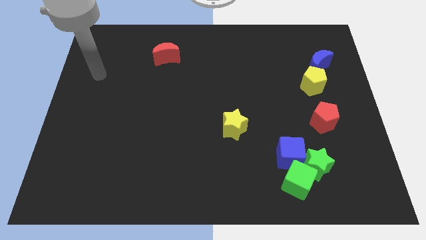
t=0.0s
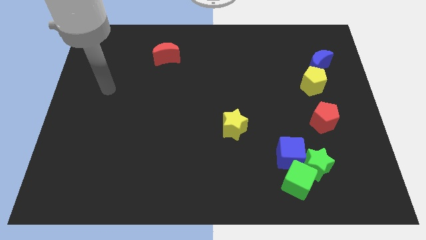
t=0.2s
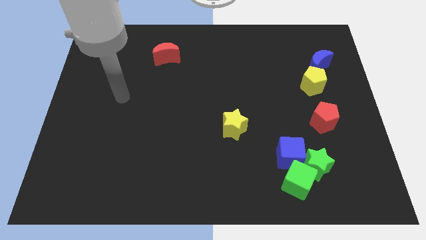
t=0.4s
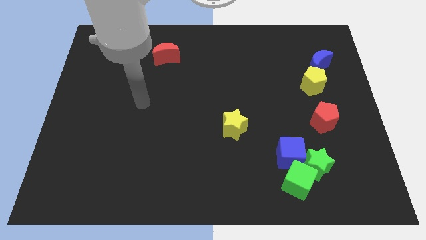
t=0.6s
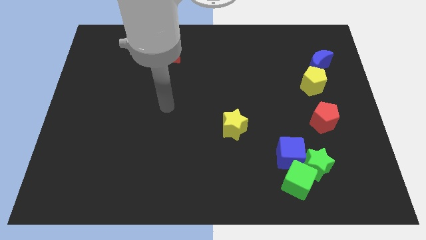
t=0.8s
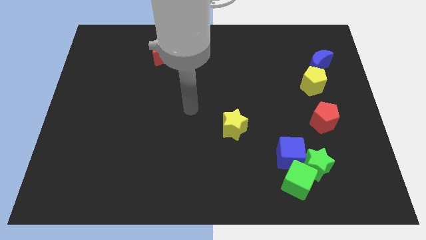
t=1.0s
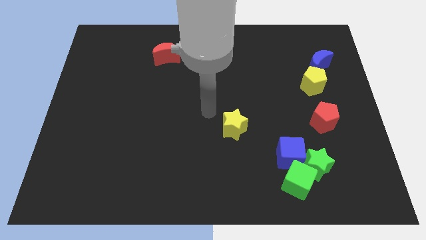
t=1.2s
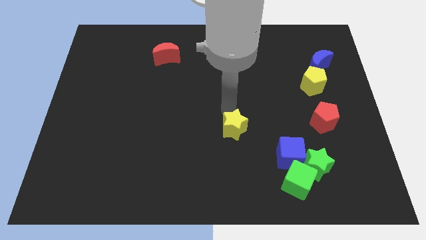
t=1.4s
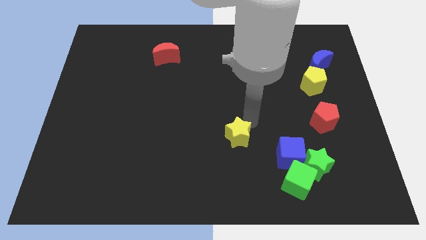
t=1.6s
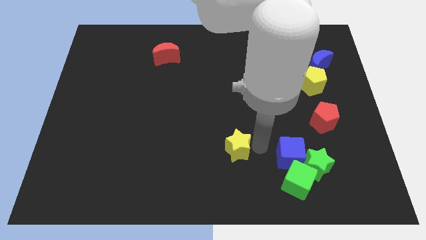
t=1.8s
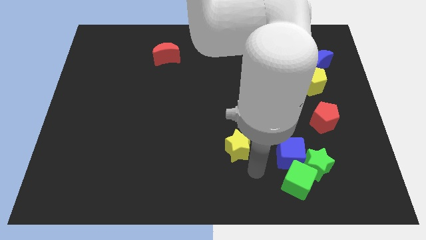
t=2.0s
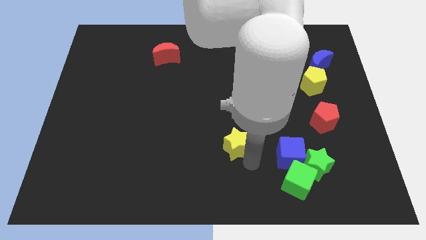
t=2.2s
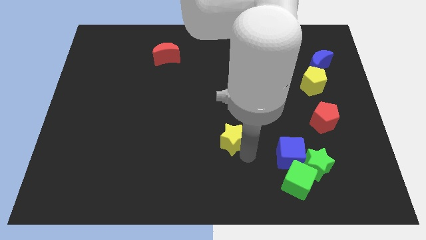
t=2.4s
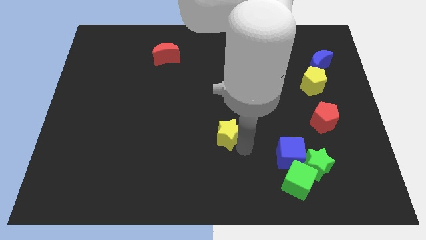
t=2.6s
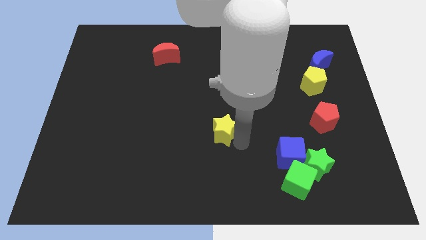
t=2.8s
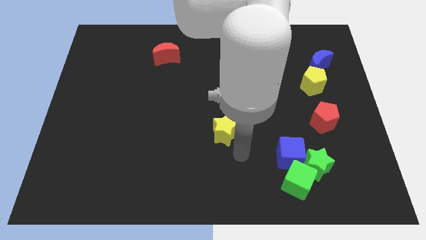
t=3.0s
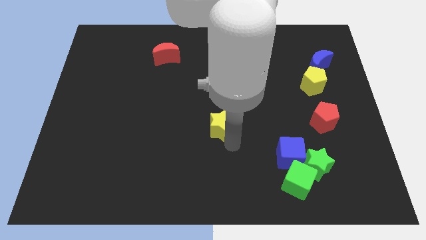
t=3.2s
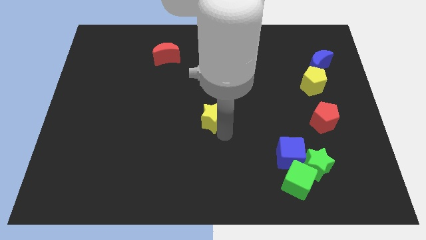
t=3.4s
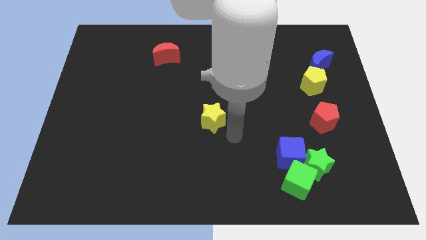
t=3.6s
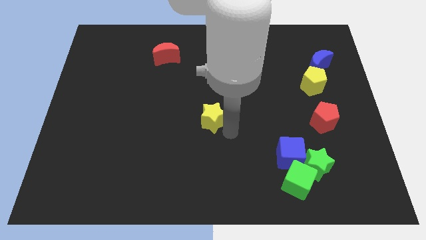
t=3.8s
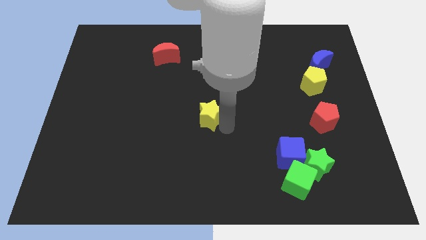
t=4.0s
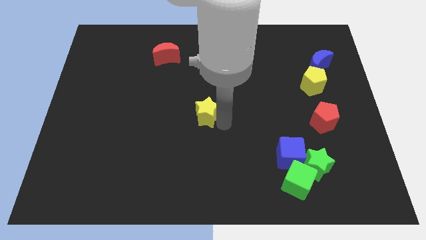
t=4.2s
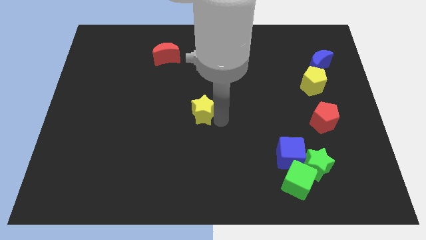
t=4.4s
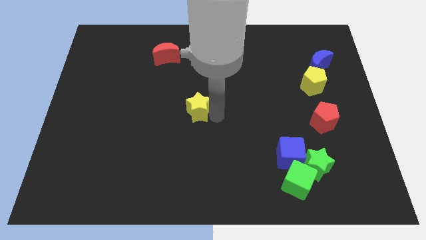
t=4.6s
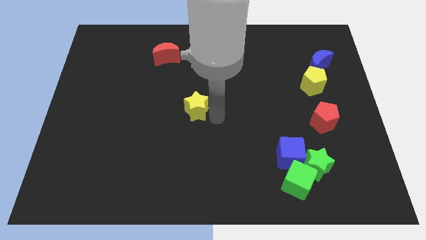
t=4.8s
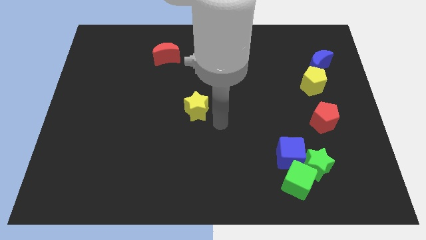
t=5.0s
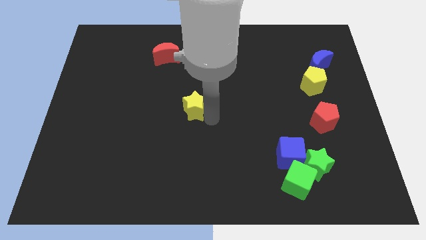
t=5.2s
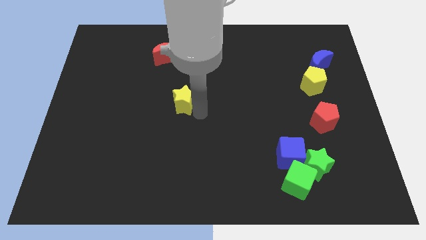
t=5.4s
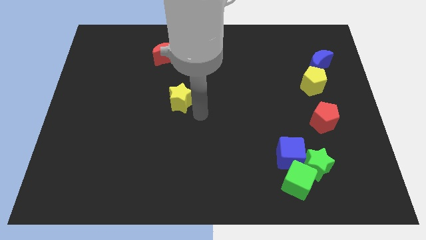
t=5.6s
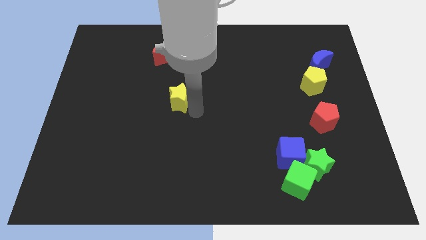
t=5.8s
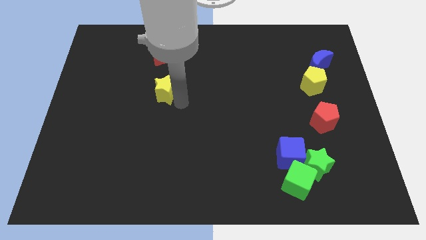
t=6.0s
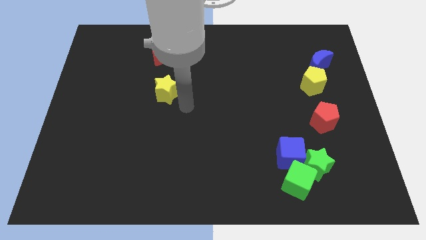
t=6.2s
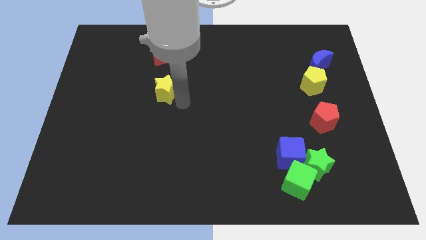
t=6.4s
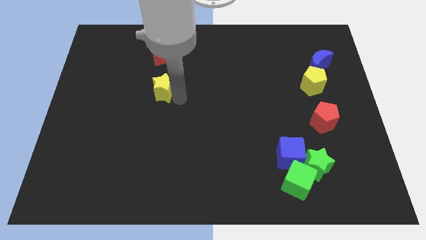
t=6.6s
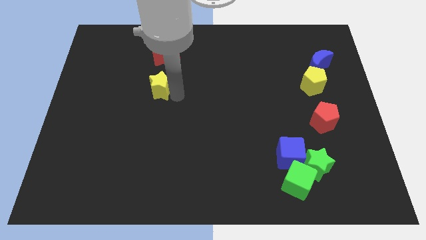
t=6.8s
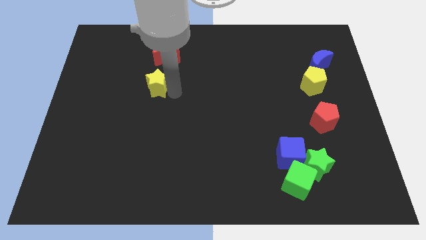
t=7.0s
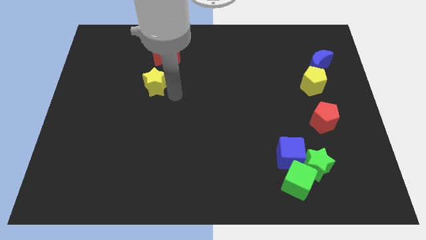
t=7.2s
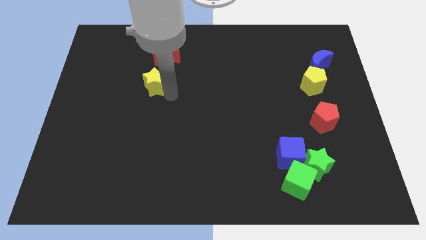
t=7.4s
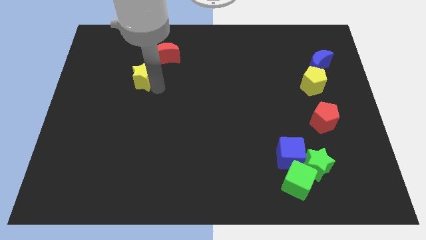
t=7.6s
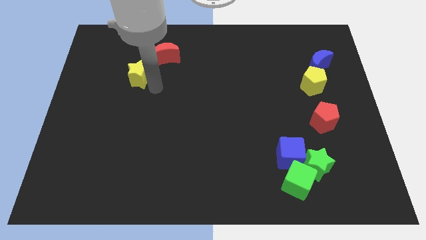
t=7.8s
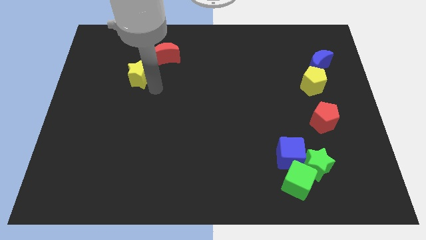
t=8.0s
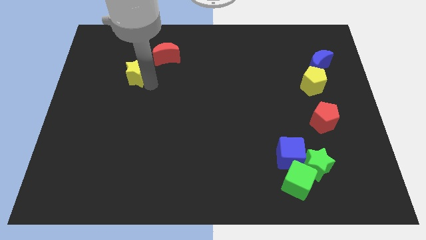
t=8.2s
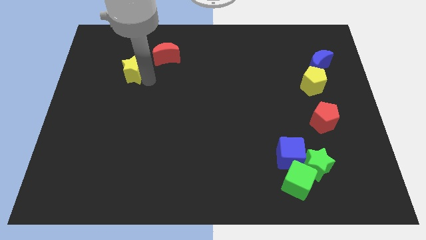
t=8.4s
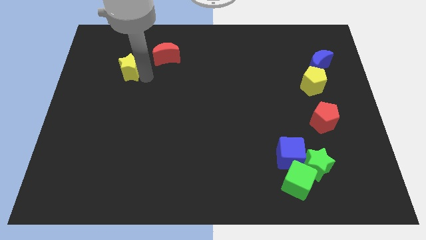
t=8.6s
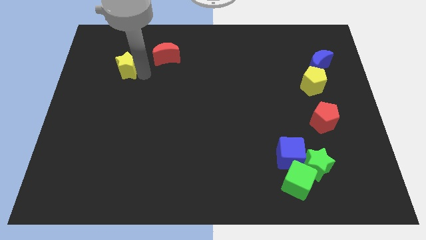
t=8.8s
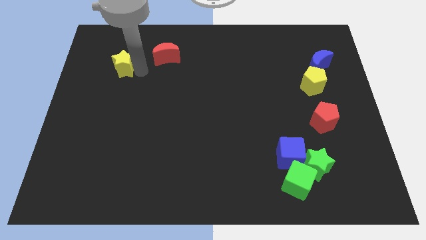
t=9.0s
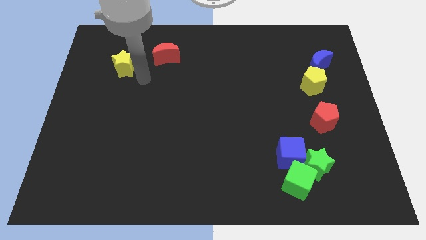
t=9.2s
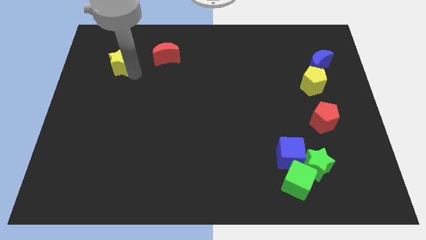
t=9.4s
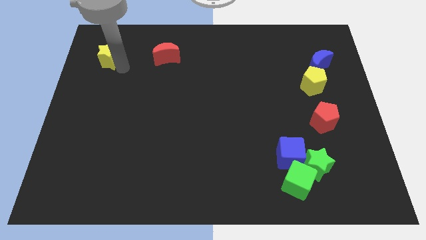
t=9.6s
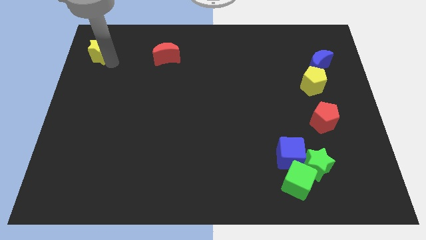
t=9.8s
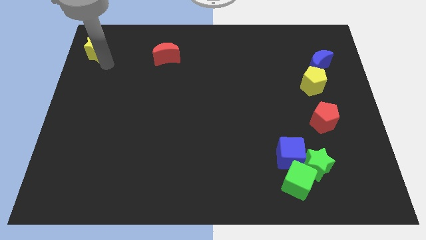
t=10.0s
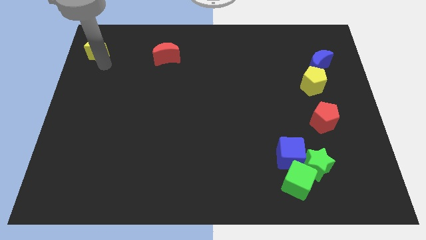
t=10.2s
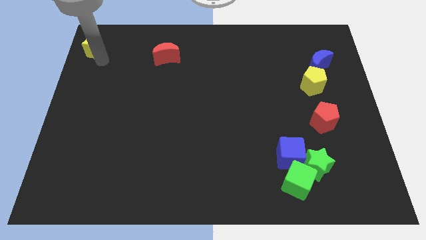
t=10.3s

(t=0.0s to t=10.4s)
put the yellow star to the top left corner

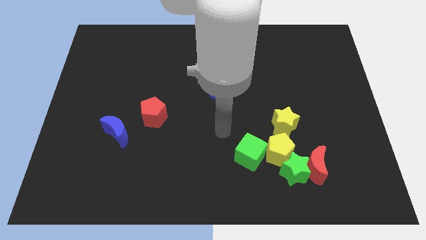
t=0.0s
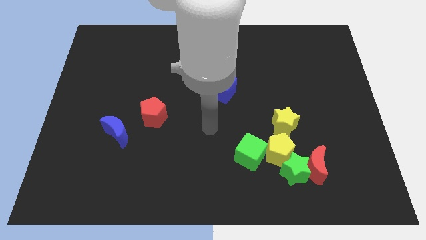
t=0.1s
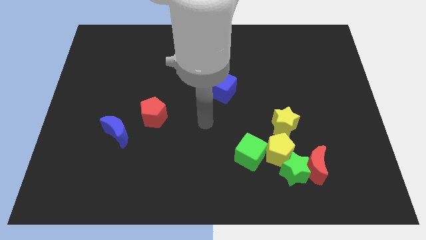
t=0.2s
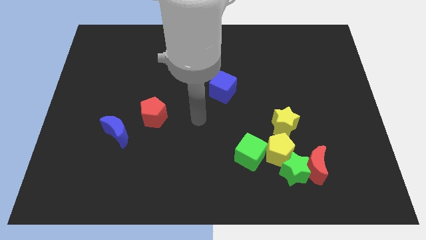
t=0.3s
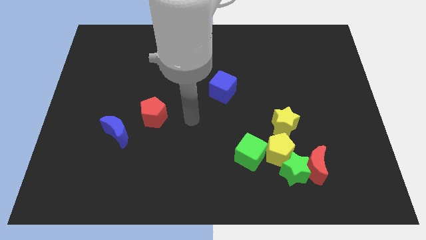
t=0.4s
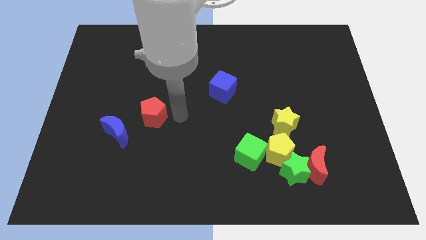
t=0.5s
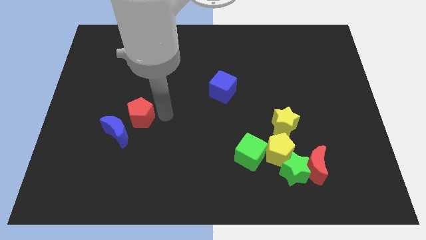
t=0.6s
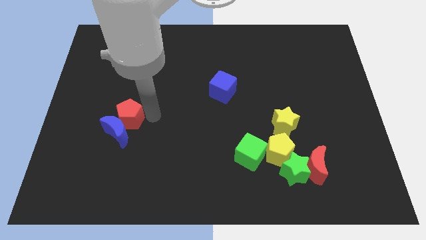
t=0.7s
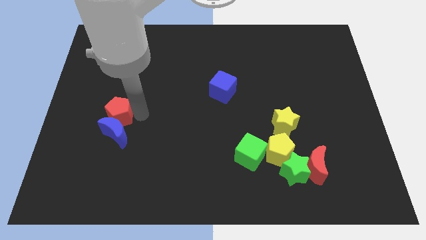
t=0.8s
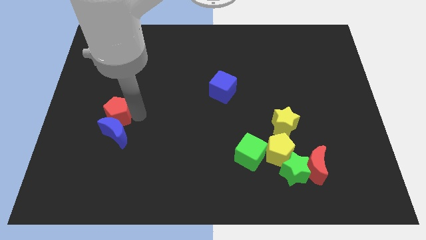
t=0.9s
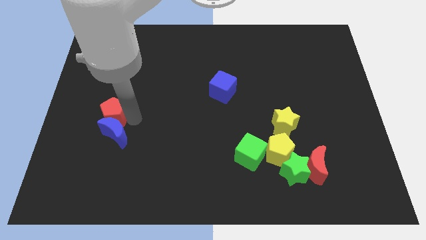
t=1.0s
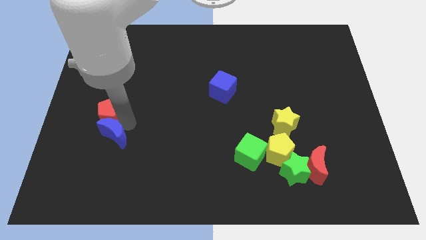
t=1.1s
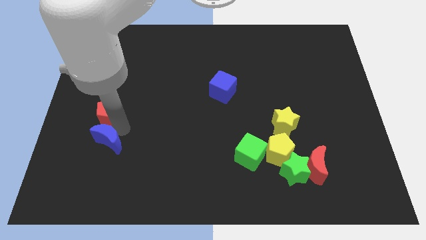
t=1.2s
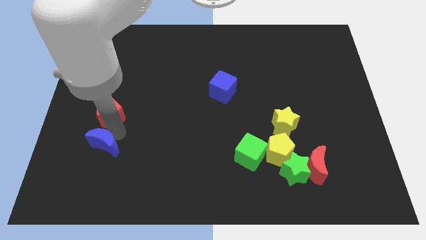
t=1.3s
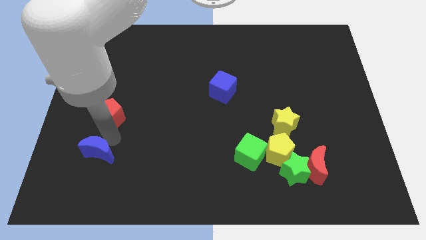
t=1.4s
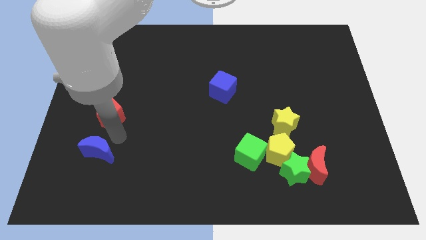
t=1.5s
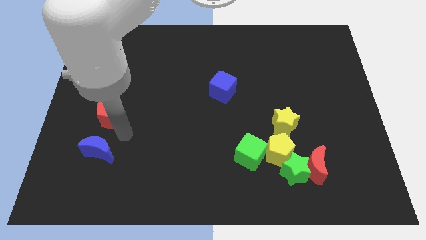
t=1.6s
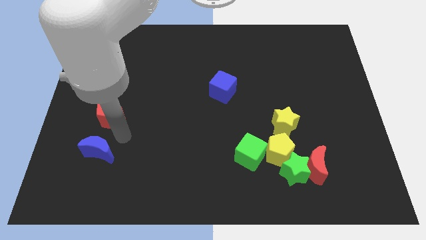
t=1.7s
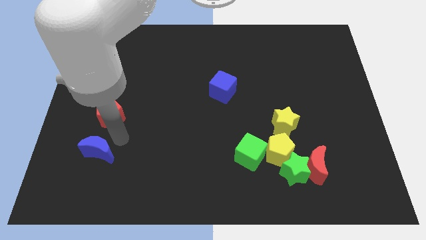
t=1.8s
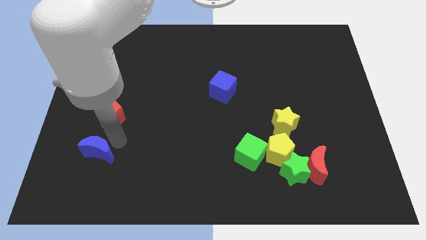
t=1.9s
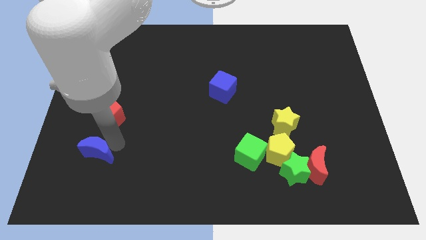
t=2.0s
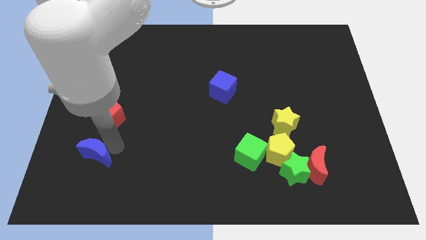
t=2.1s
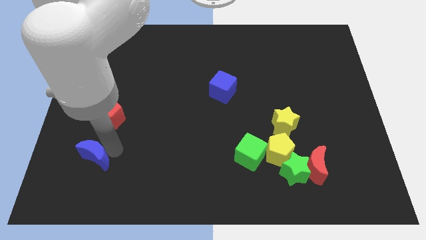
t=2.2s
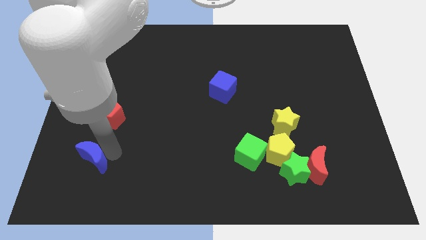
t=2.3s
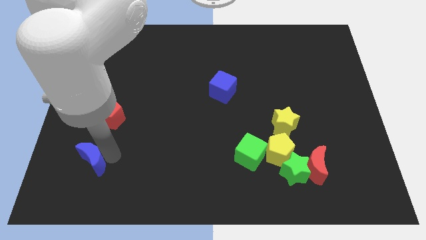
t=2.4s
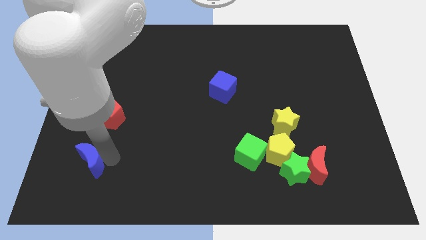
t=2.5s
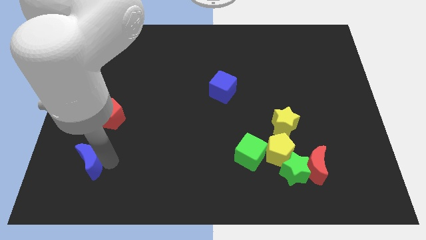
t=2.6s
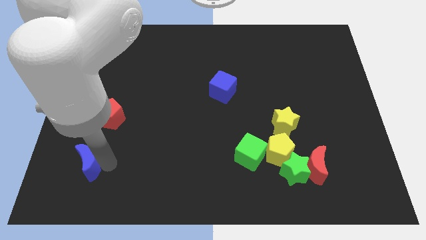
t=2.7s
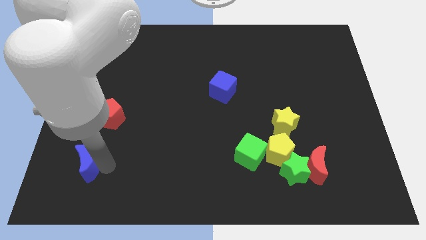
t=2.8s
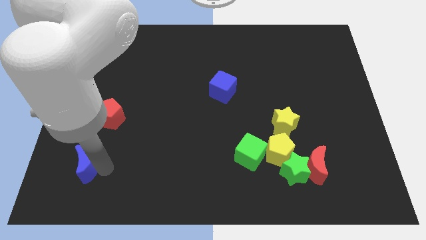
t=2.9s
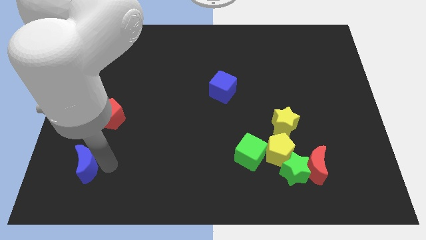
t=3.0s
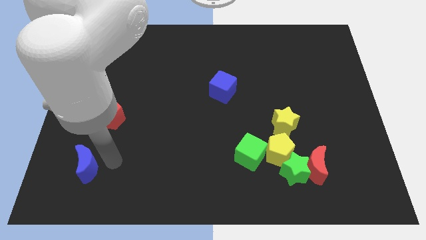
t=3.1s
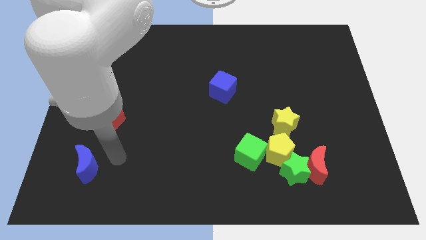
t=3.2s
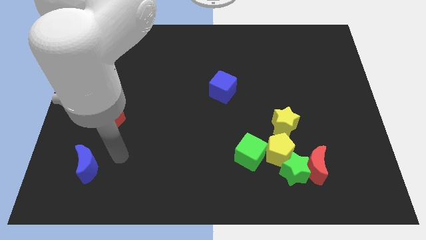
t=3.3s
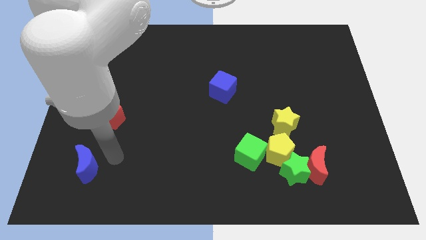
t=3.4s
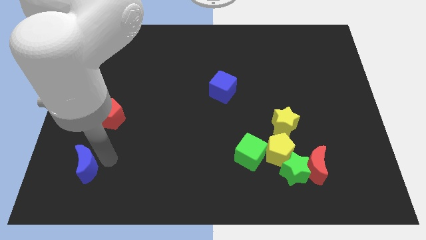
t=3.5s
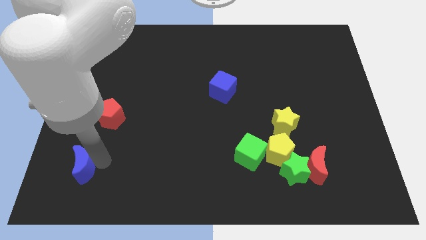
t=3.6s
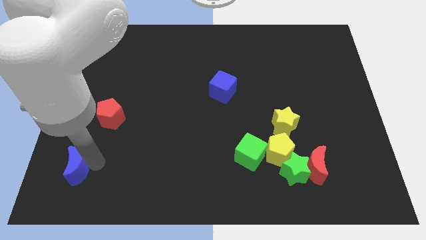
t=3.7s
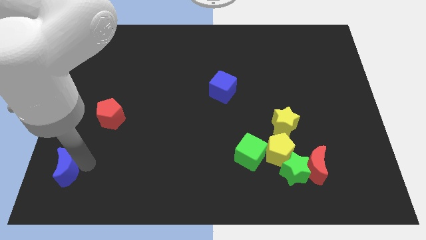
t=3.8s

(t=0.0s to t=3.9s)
put the blue moon to the bottom left
